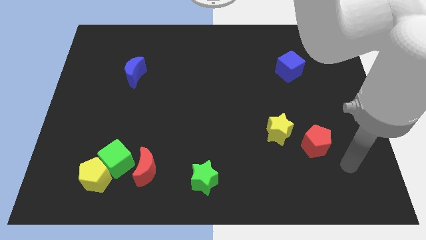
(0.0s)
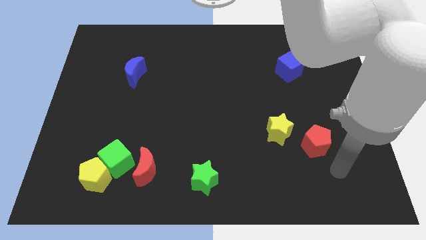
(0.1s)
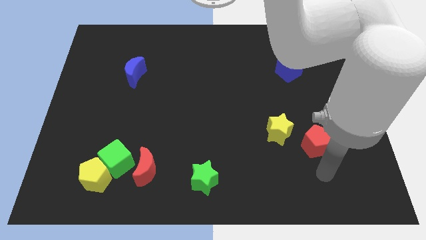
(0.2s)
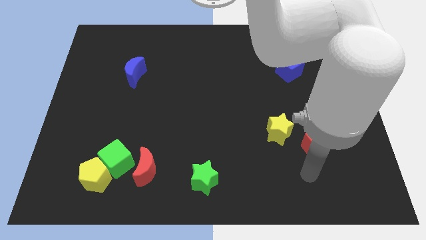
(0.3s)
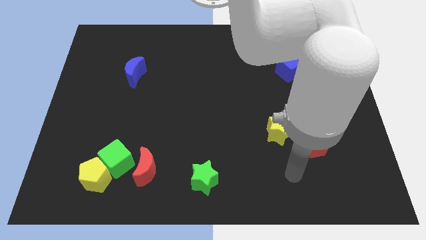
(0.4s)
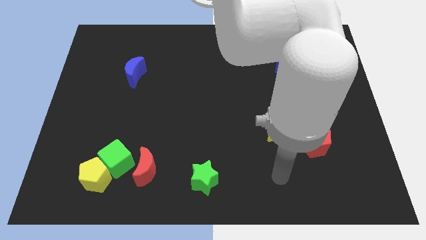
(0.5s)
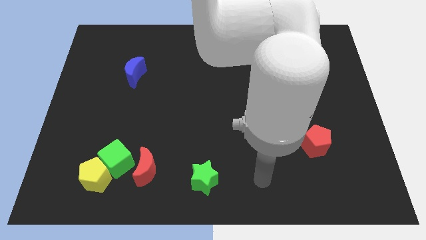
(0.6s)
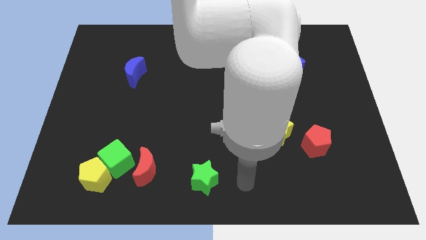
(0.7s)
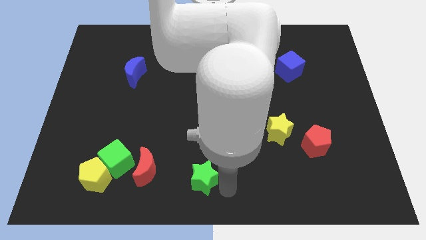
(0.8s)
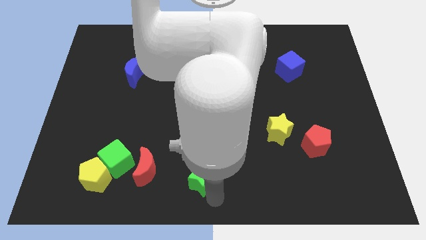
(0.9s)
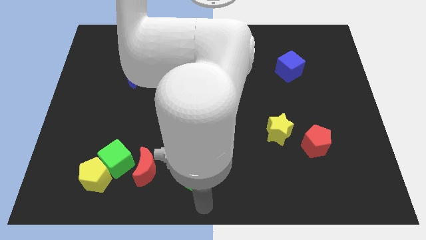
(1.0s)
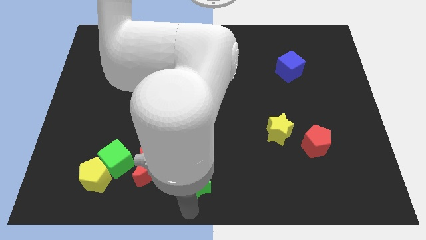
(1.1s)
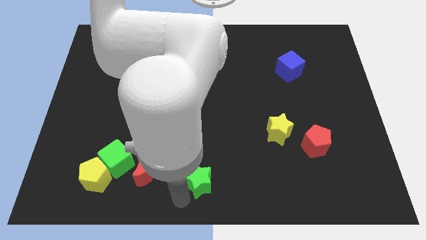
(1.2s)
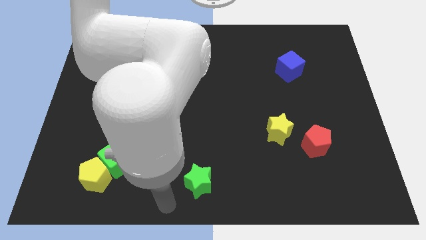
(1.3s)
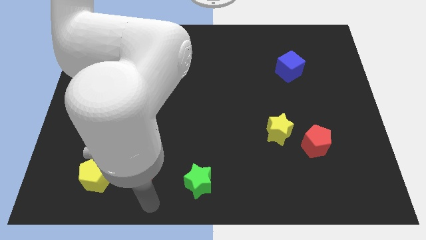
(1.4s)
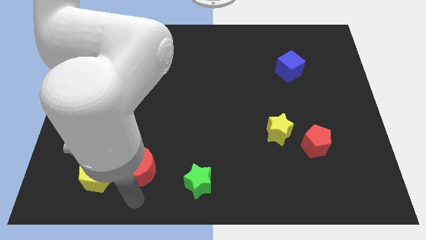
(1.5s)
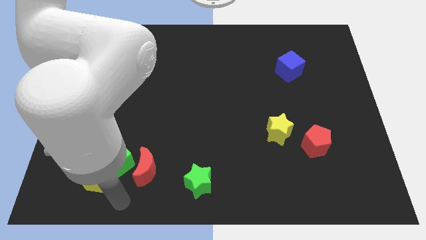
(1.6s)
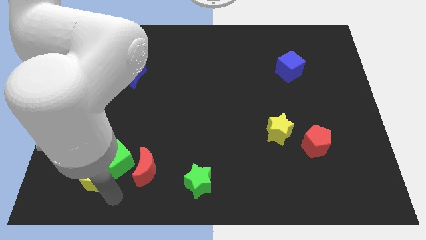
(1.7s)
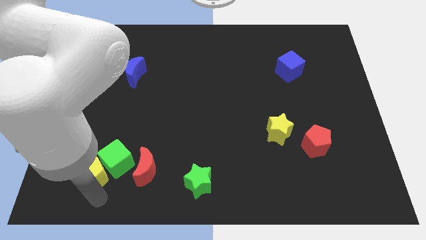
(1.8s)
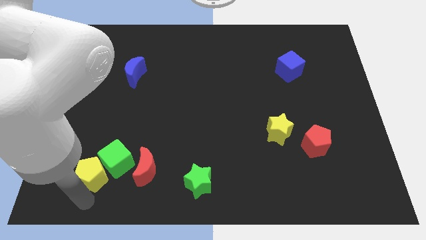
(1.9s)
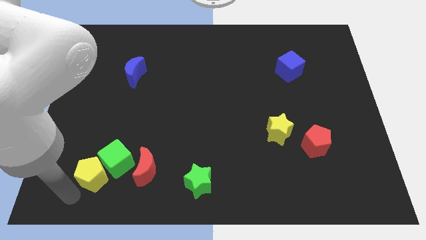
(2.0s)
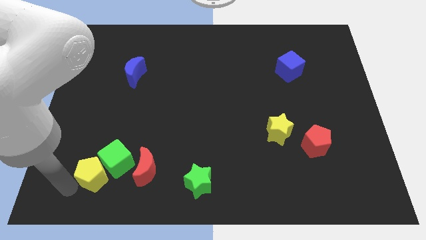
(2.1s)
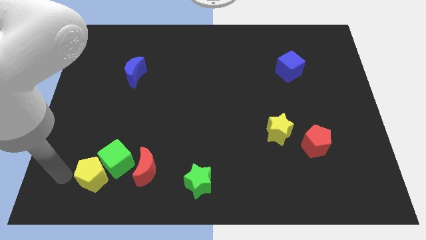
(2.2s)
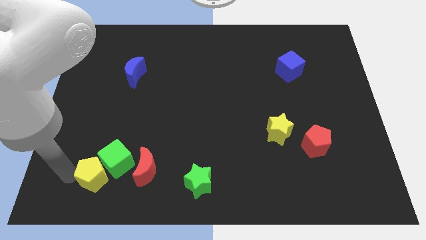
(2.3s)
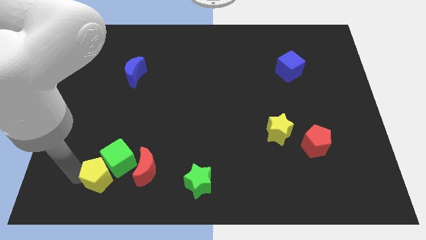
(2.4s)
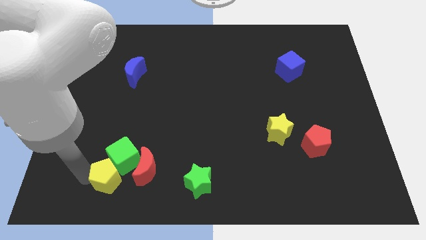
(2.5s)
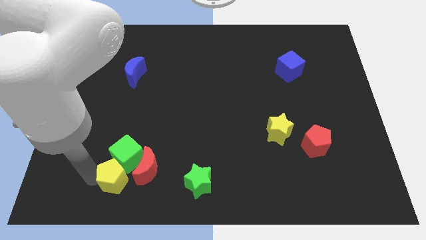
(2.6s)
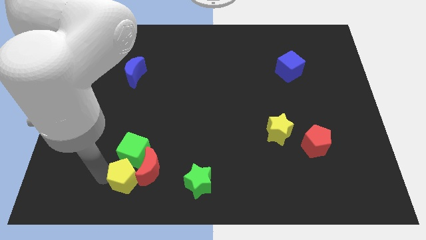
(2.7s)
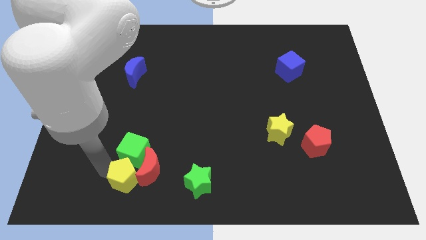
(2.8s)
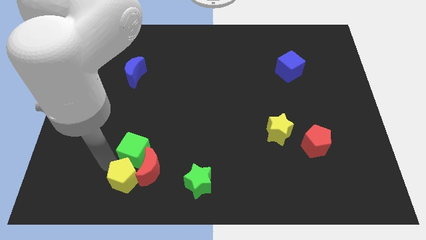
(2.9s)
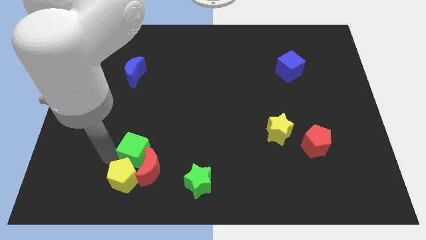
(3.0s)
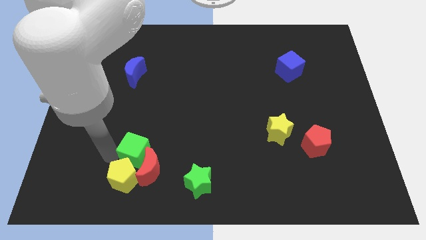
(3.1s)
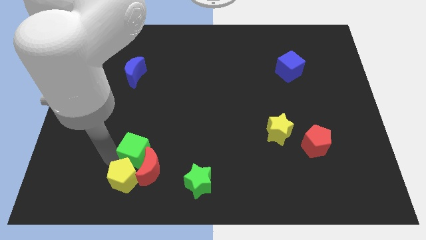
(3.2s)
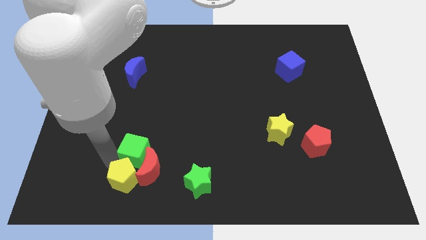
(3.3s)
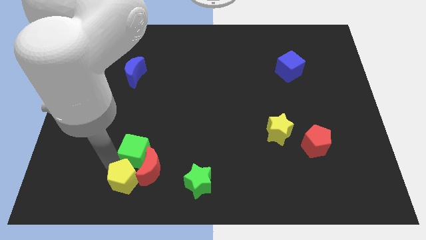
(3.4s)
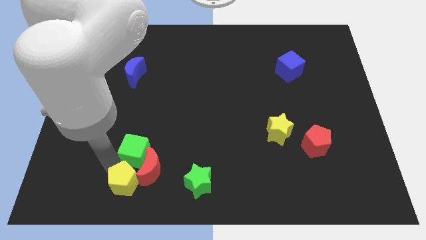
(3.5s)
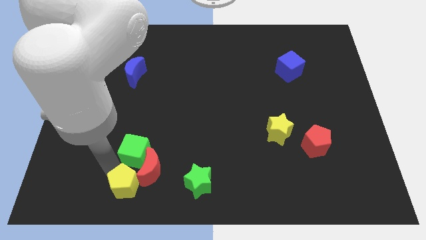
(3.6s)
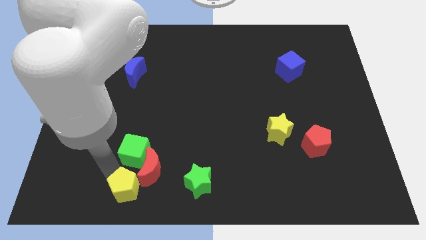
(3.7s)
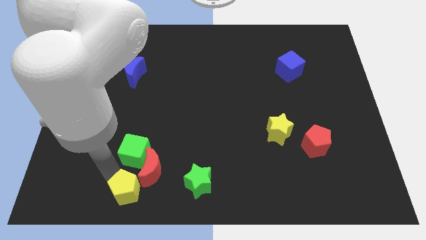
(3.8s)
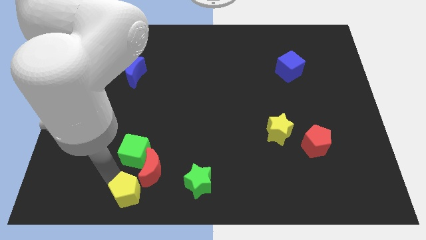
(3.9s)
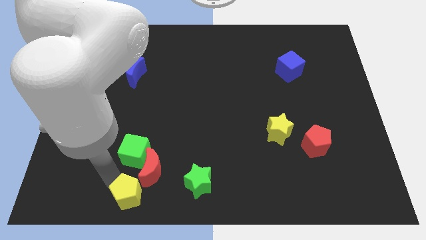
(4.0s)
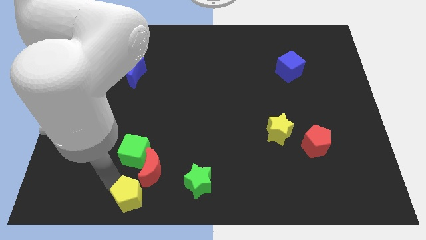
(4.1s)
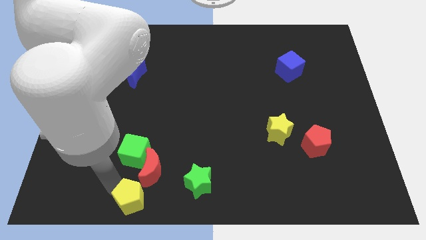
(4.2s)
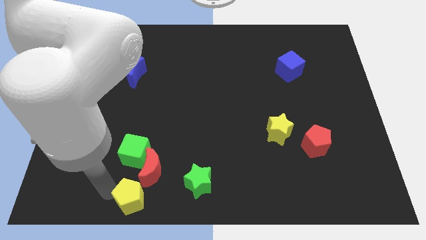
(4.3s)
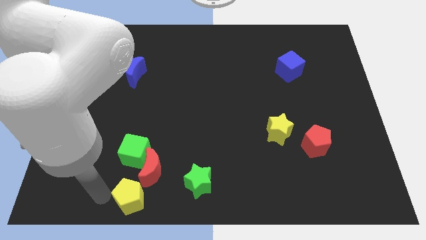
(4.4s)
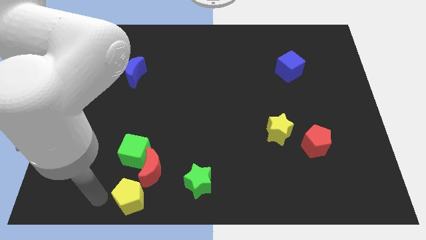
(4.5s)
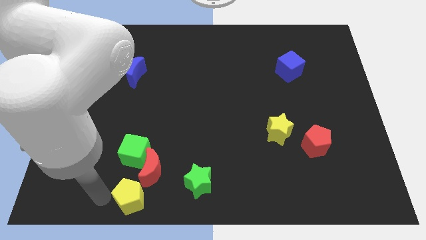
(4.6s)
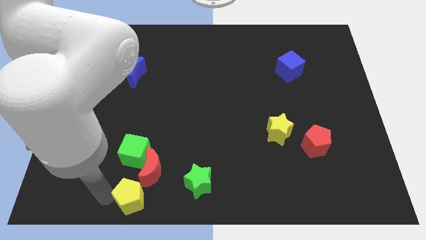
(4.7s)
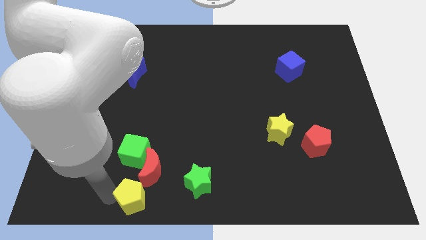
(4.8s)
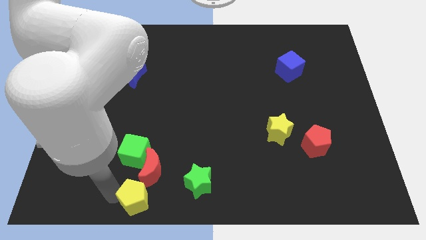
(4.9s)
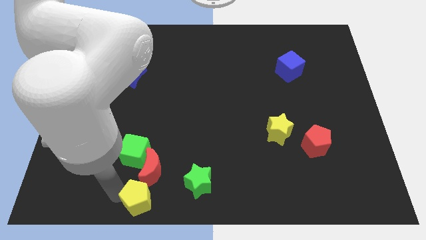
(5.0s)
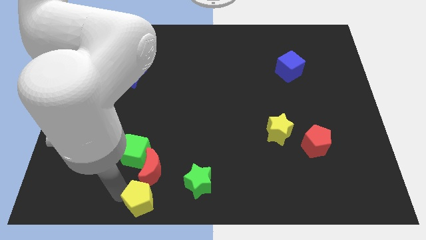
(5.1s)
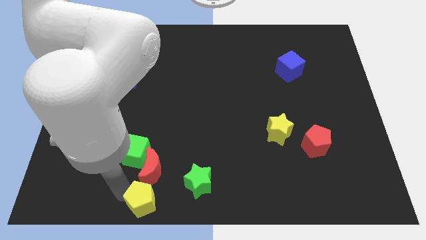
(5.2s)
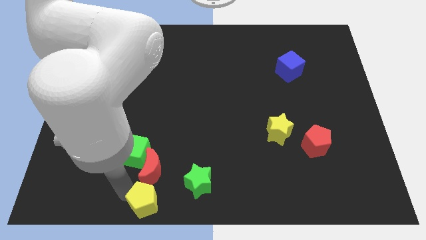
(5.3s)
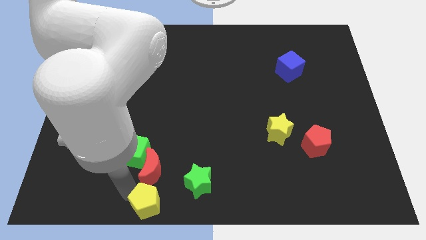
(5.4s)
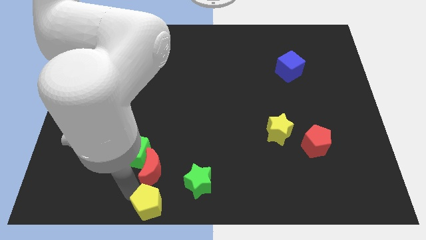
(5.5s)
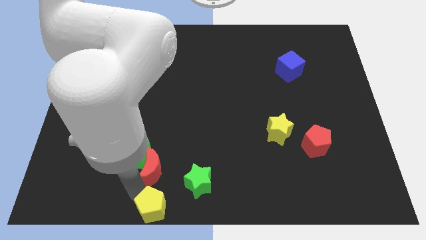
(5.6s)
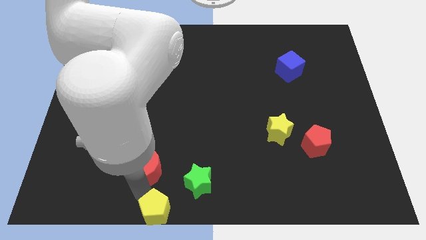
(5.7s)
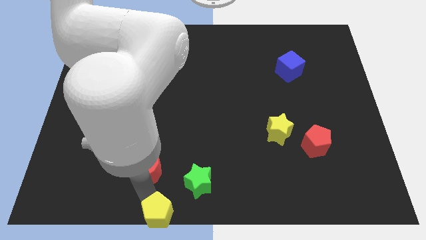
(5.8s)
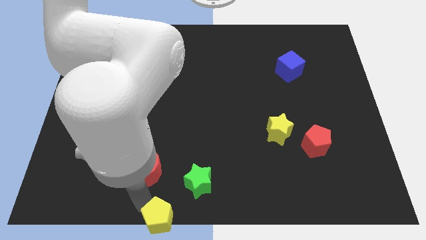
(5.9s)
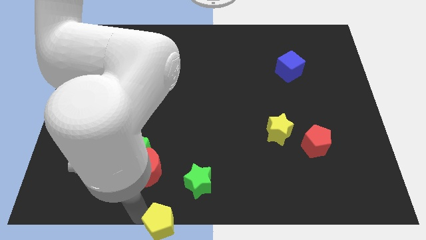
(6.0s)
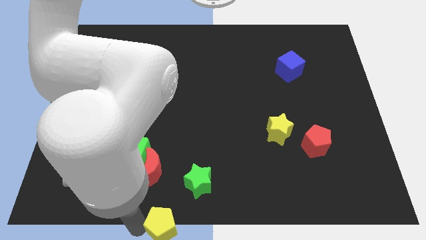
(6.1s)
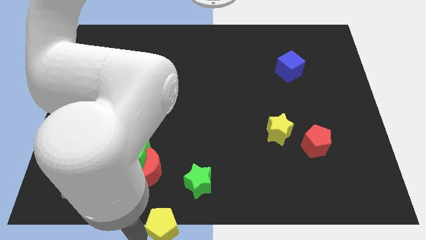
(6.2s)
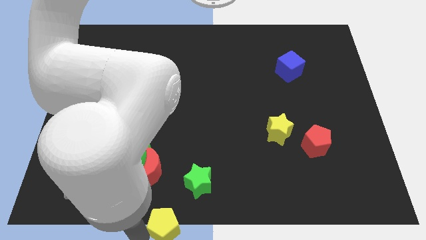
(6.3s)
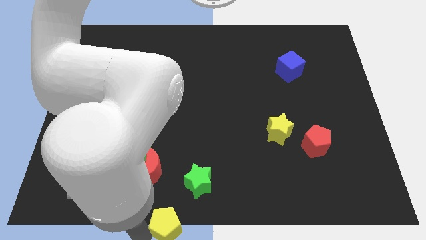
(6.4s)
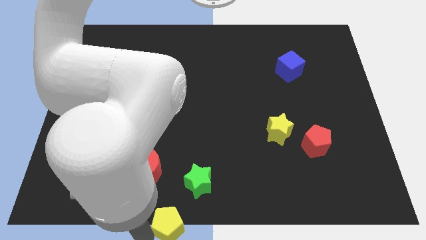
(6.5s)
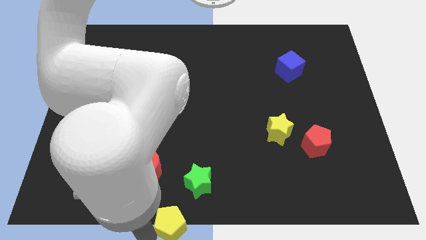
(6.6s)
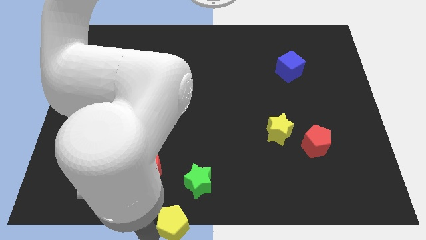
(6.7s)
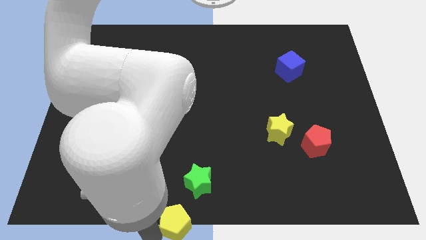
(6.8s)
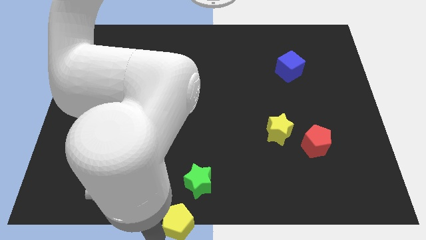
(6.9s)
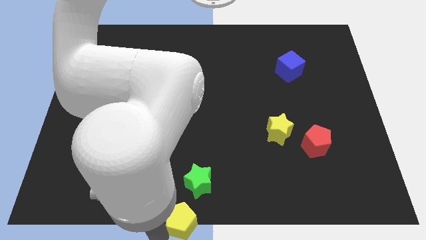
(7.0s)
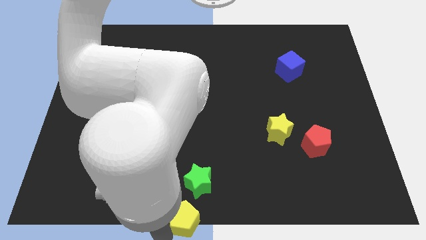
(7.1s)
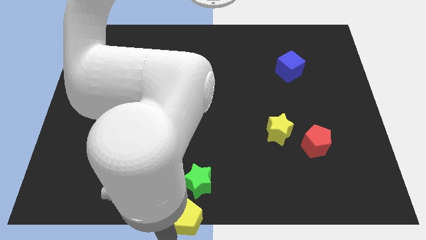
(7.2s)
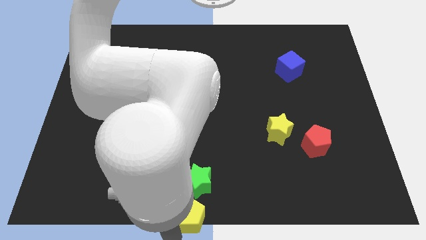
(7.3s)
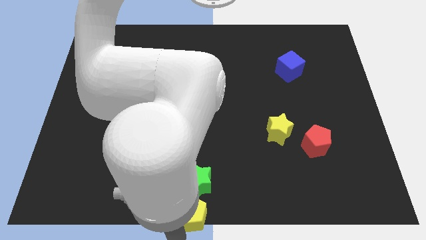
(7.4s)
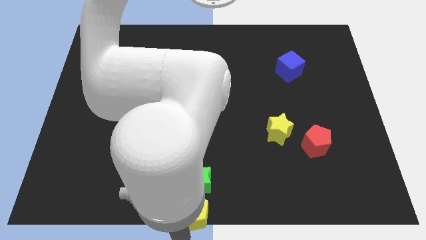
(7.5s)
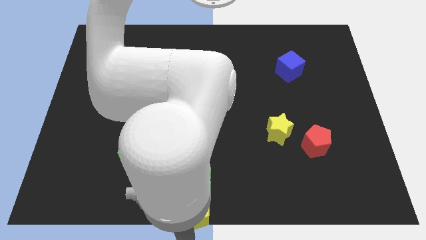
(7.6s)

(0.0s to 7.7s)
push the yellow pentagon next to the green star
